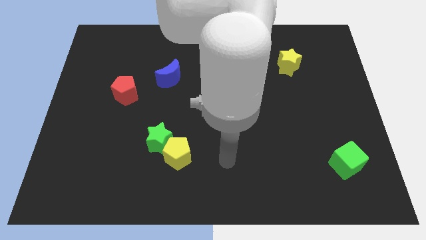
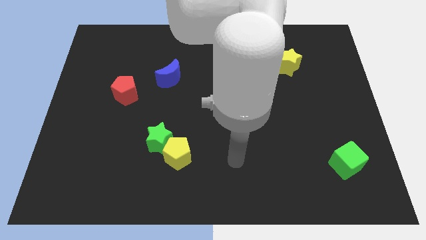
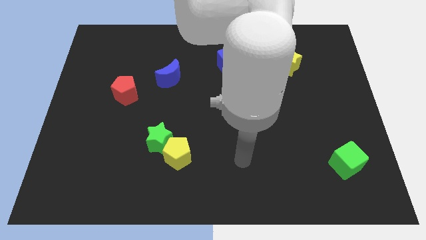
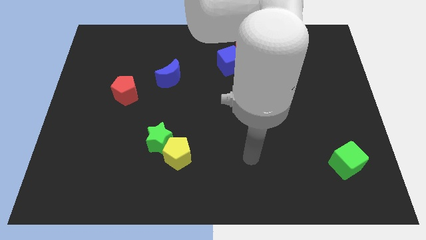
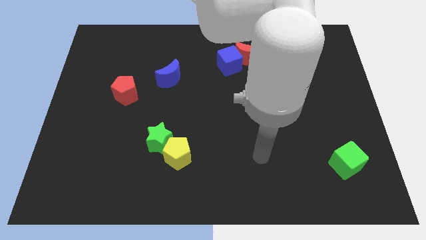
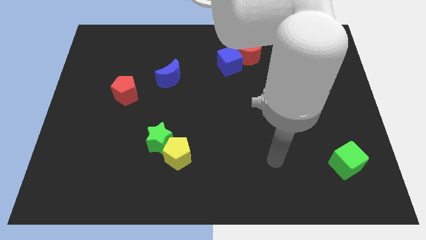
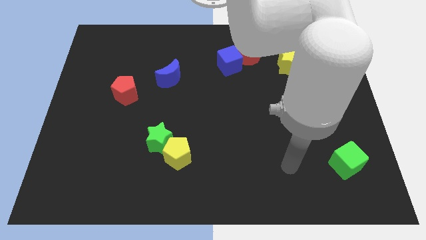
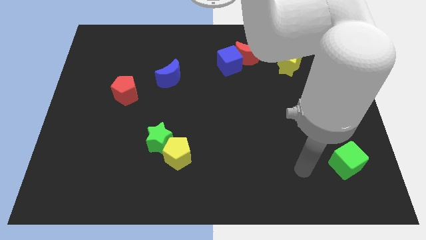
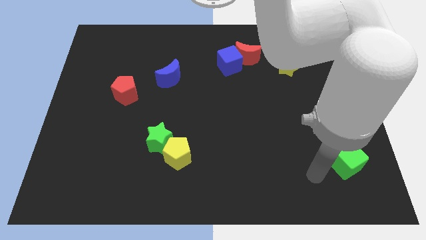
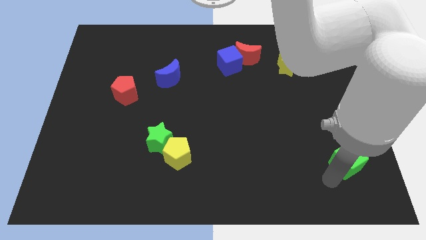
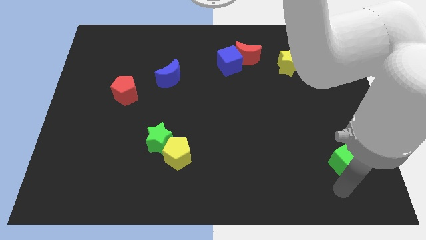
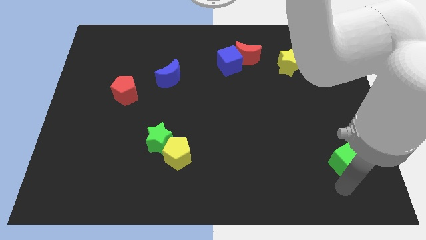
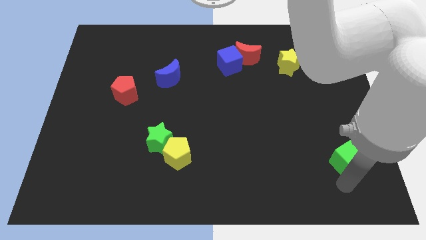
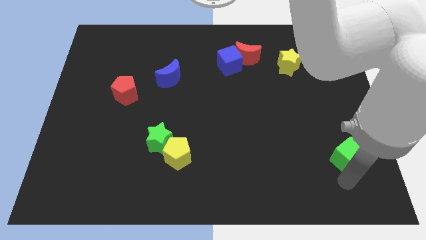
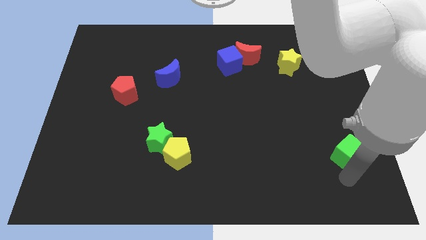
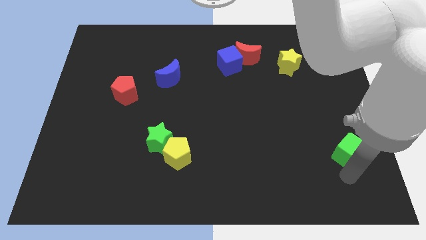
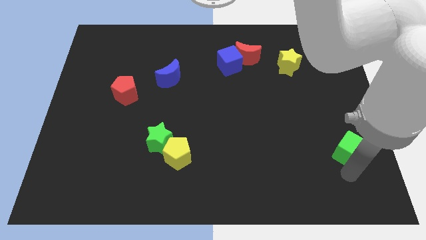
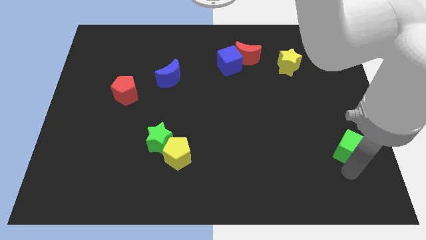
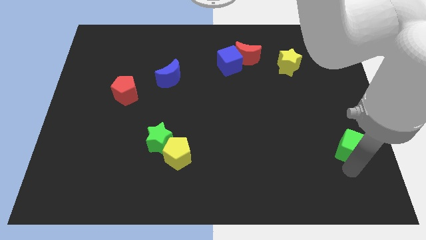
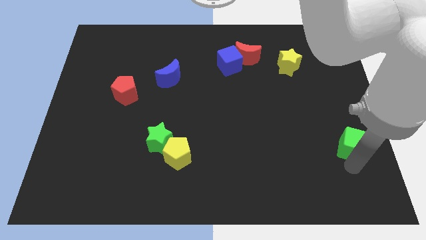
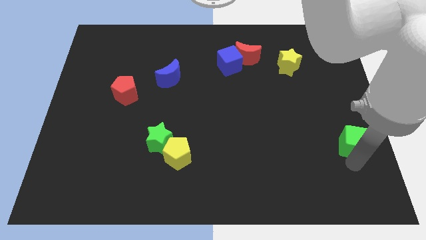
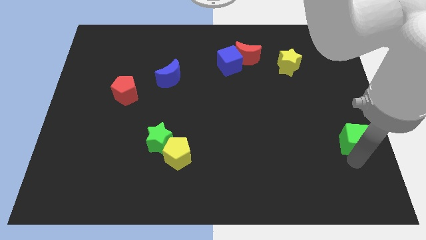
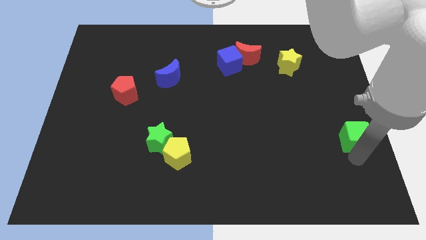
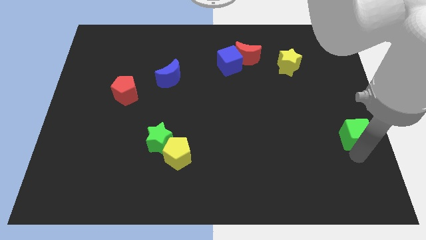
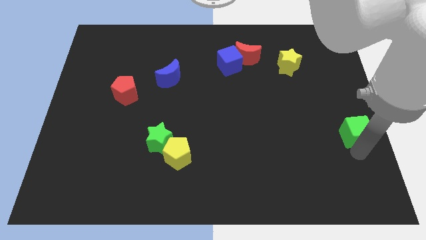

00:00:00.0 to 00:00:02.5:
slide the green cube up a little bit

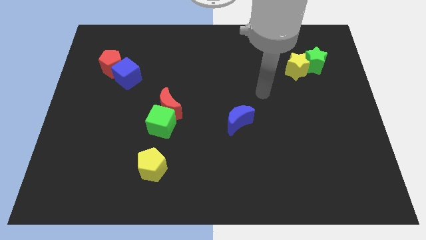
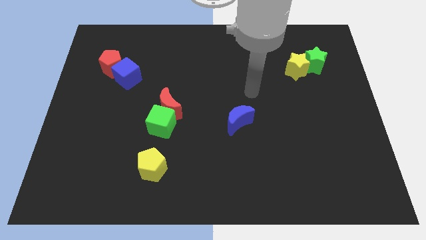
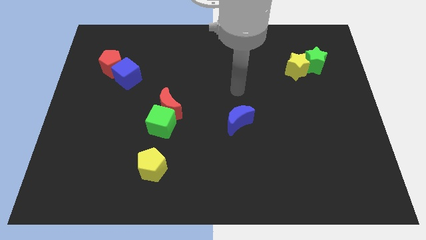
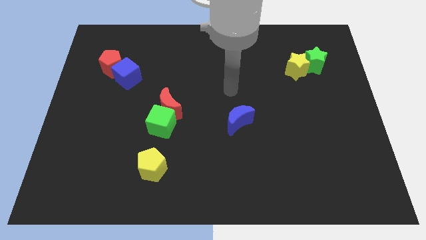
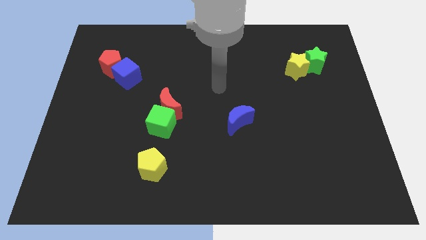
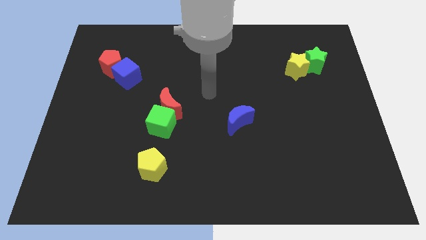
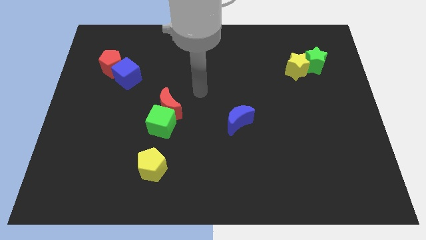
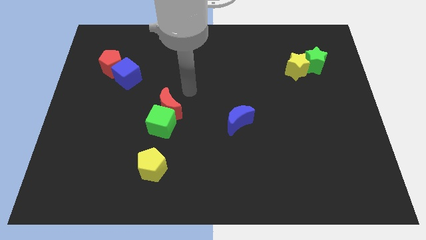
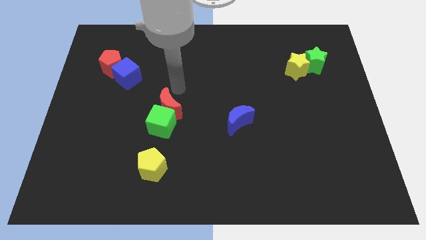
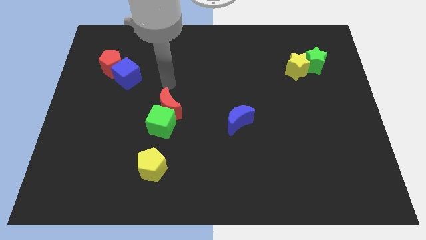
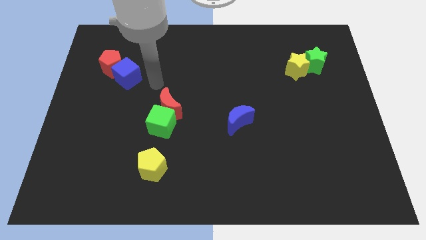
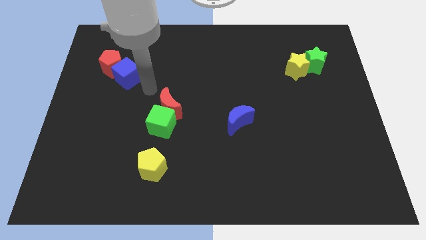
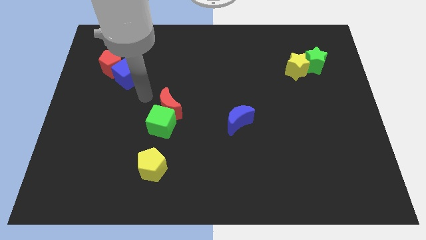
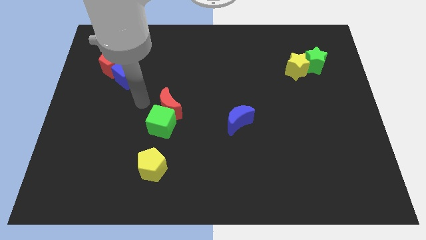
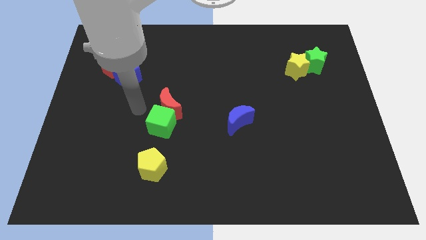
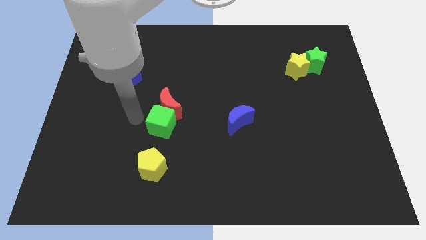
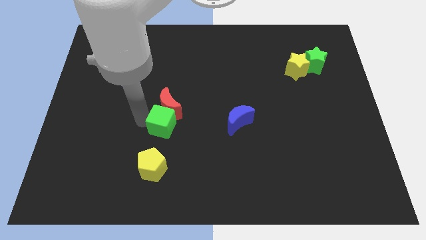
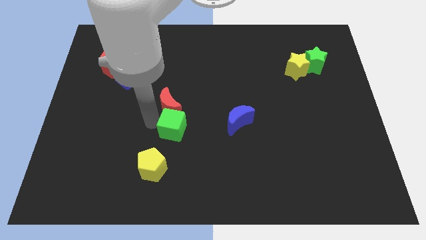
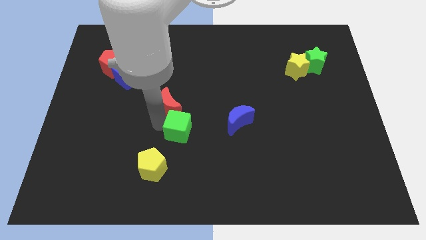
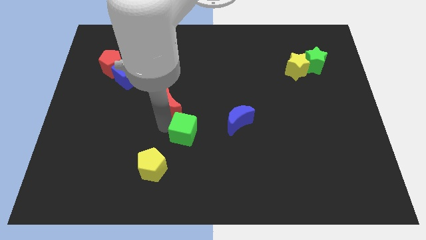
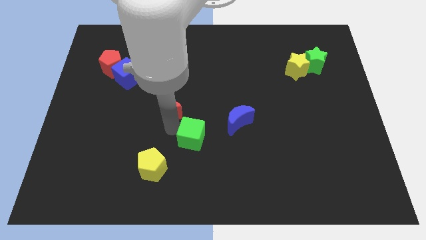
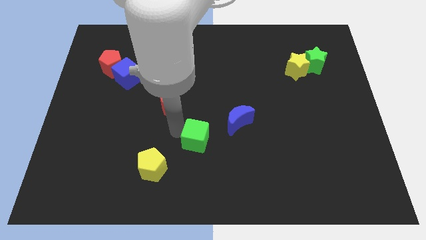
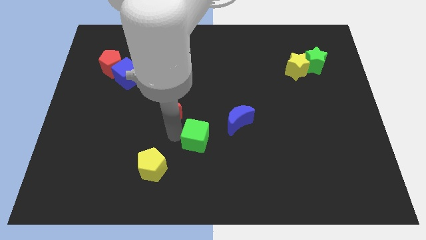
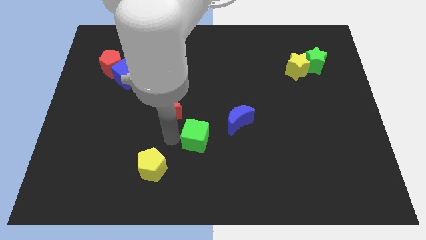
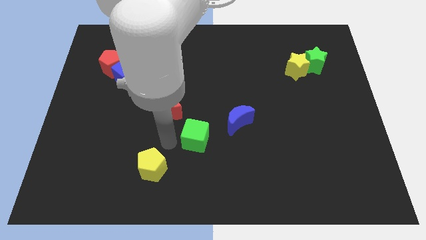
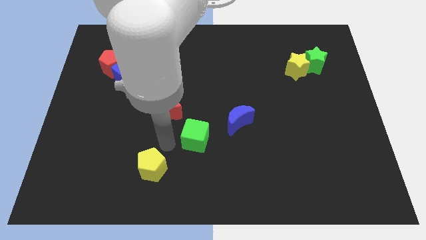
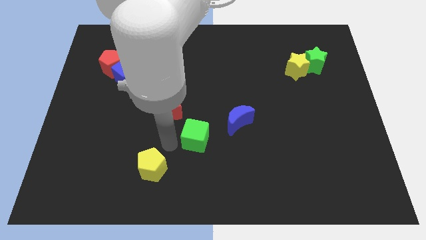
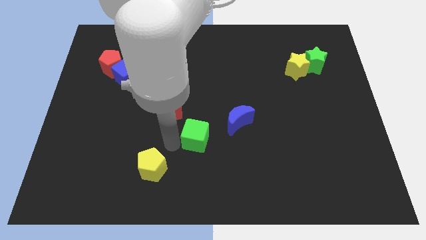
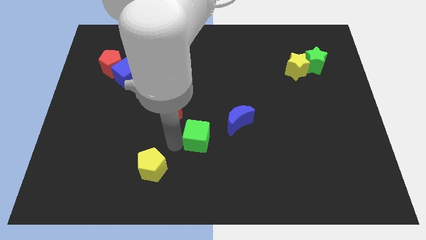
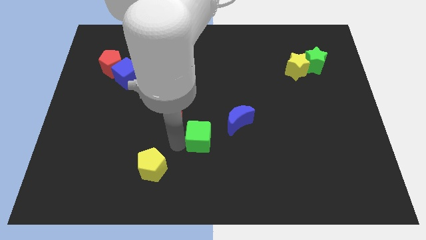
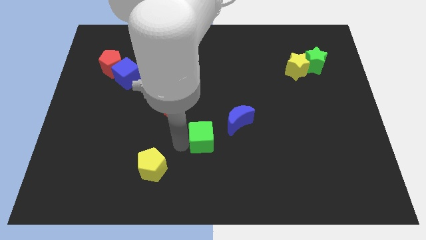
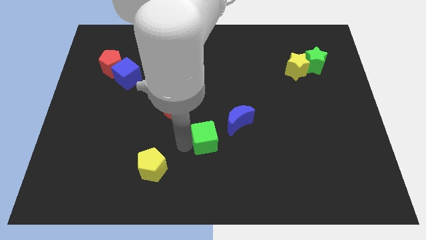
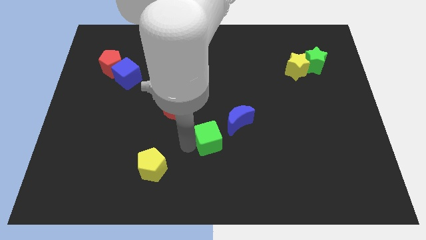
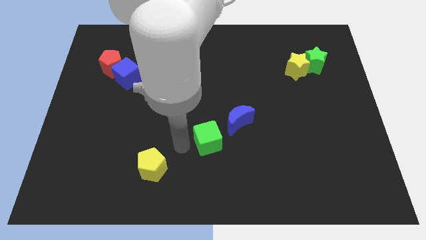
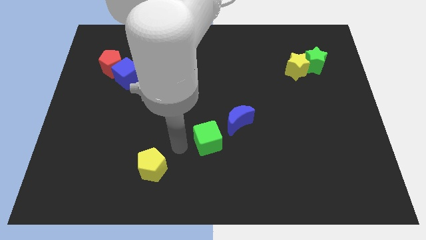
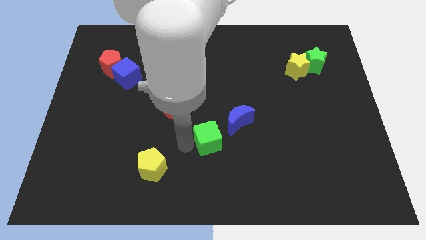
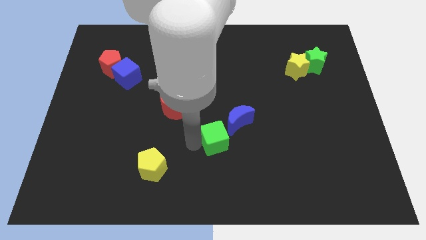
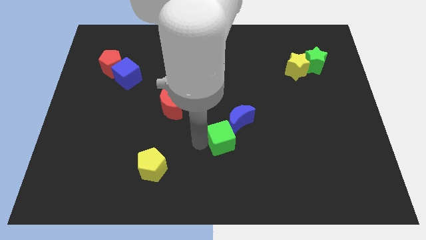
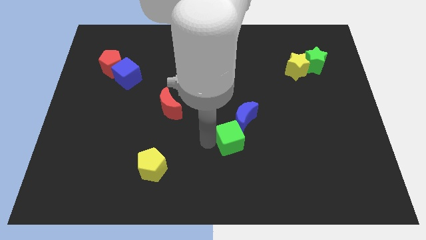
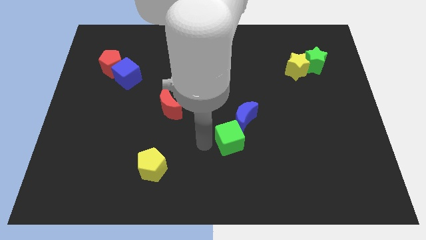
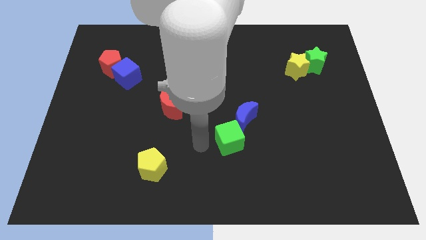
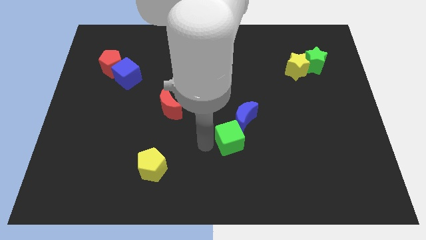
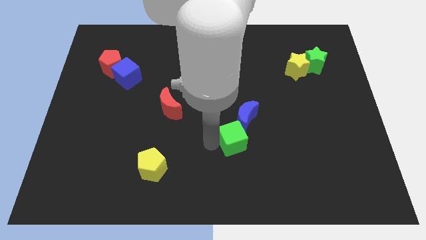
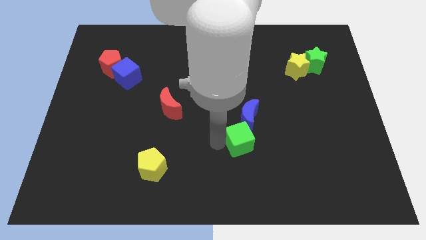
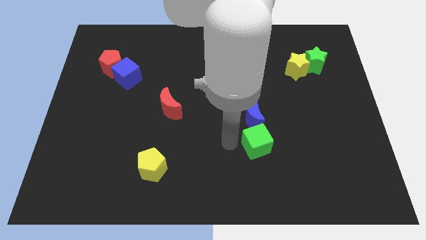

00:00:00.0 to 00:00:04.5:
move the green cube to the right

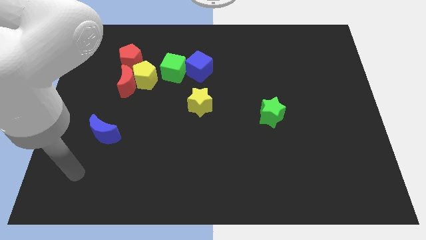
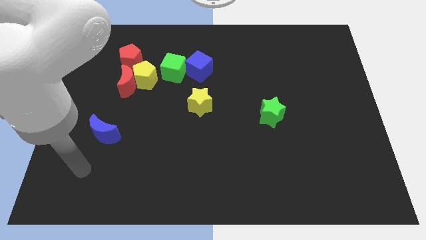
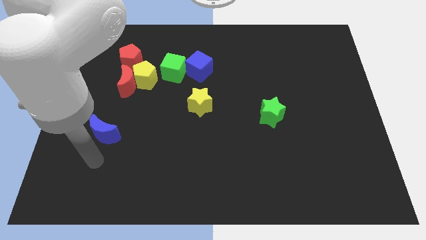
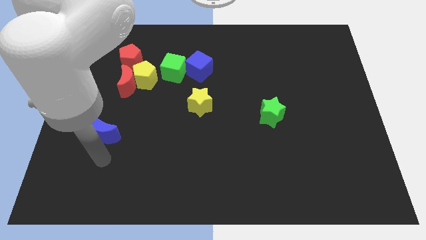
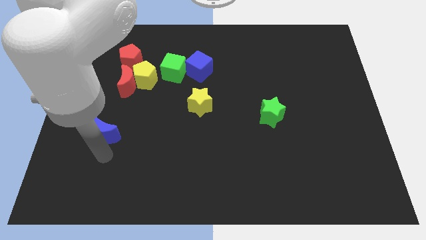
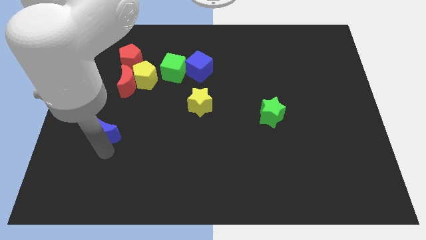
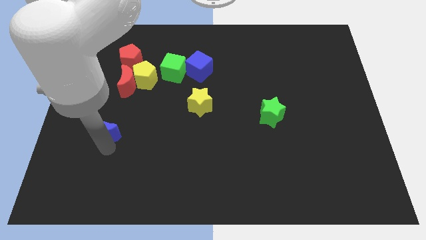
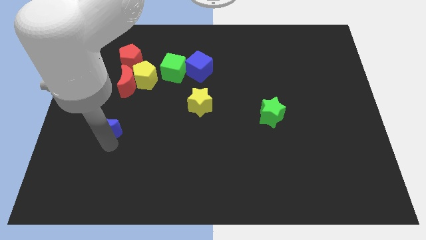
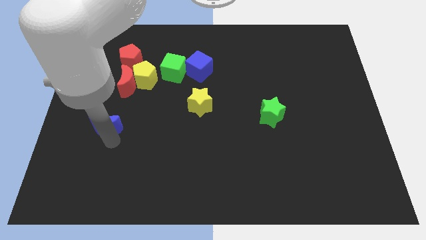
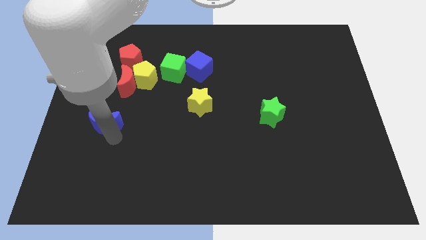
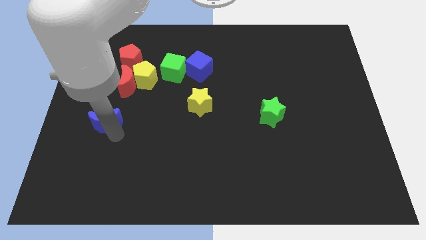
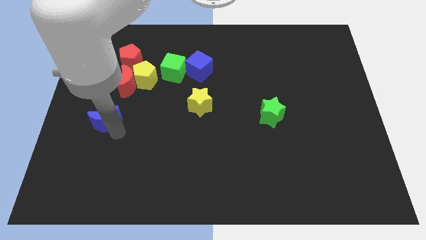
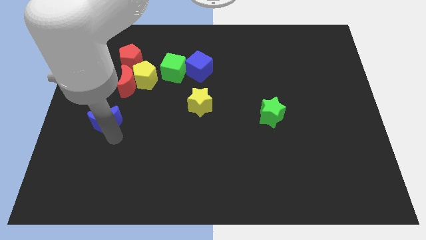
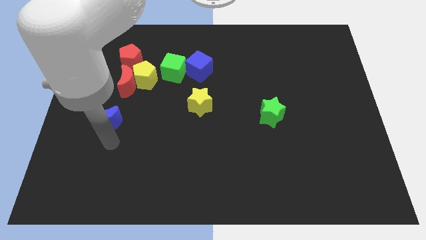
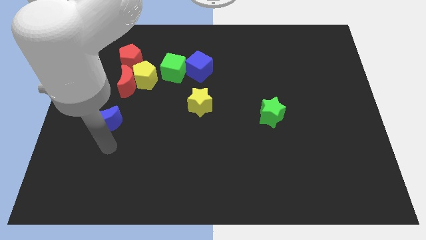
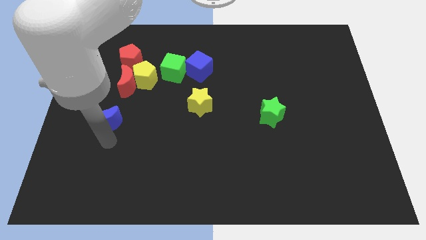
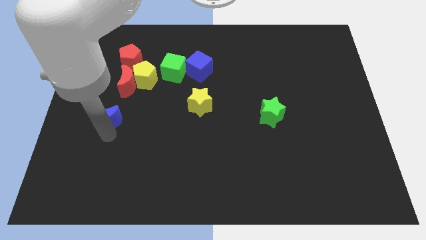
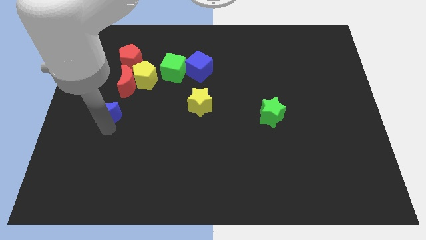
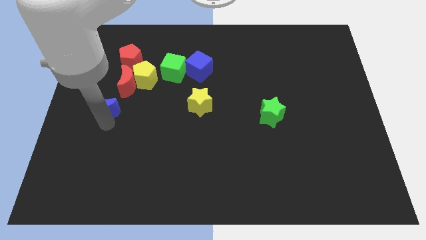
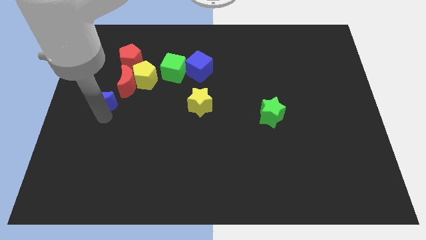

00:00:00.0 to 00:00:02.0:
push the blue moon a little bit up
